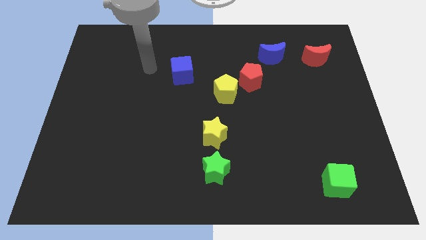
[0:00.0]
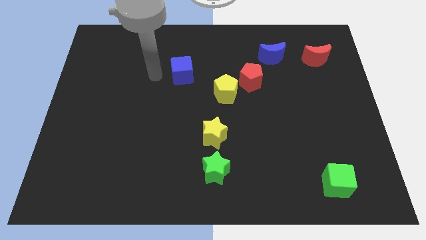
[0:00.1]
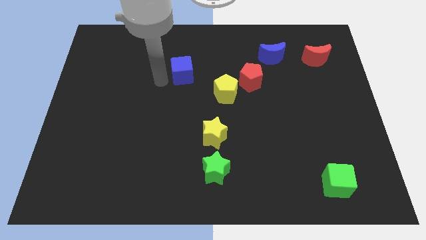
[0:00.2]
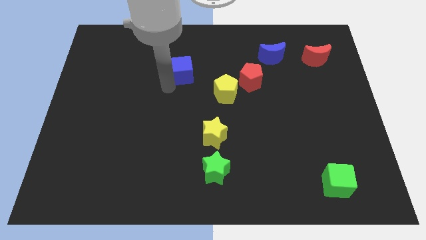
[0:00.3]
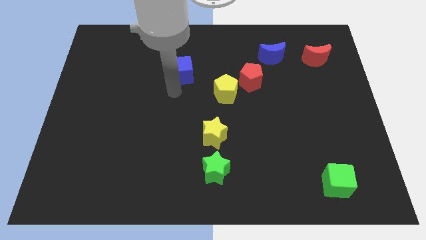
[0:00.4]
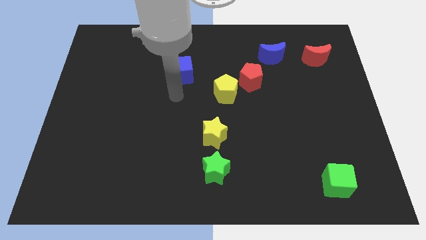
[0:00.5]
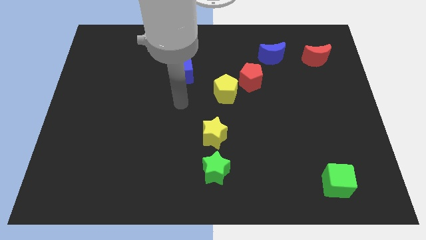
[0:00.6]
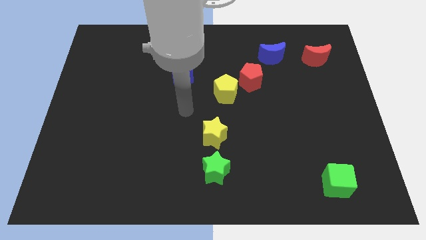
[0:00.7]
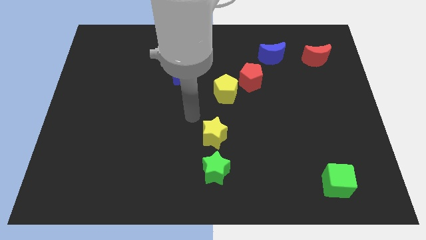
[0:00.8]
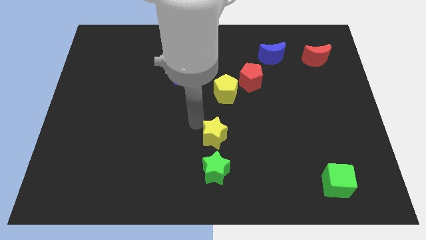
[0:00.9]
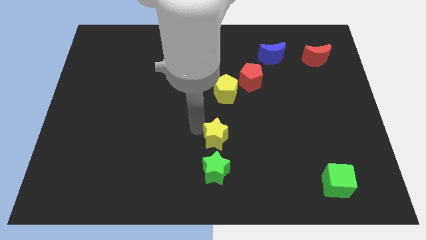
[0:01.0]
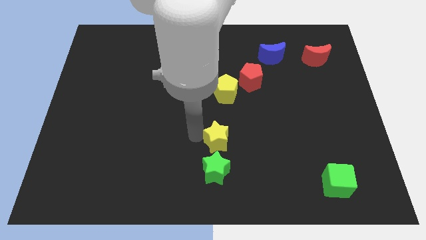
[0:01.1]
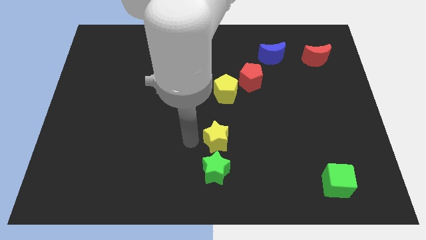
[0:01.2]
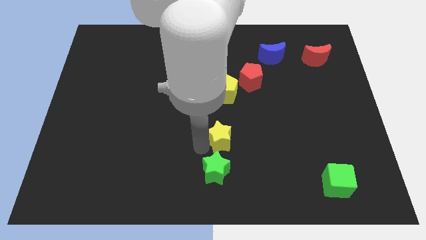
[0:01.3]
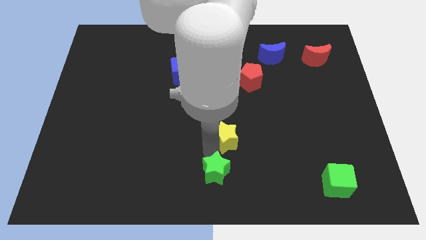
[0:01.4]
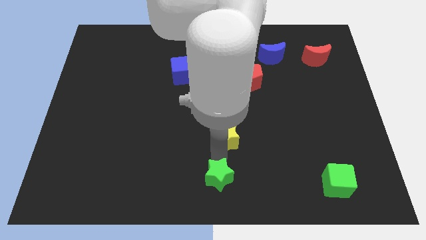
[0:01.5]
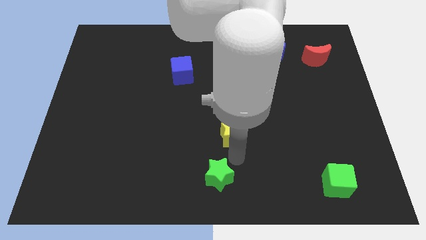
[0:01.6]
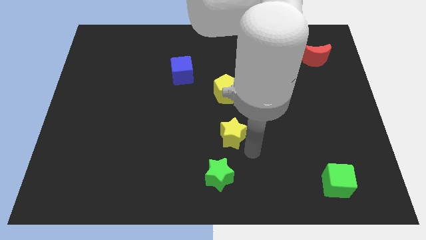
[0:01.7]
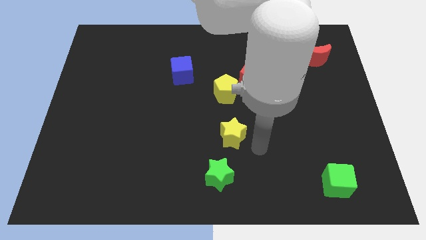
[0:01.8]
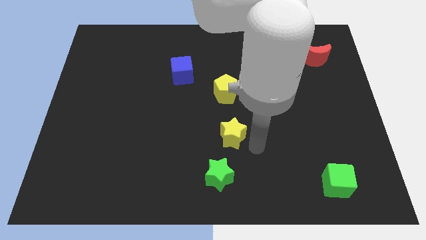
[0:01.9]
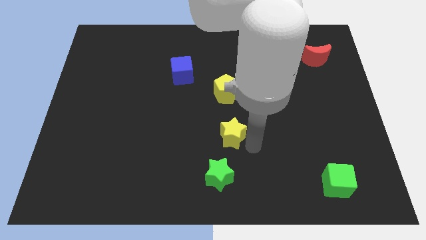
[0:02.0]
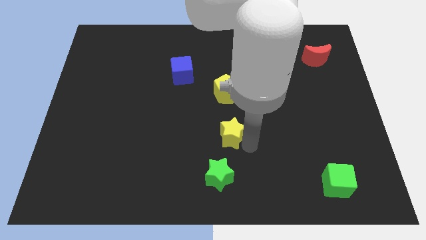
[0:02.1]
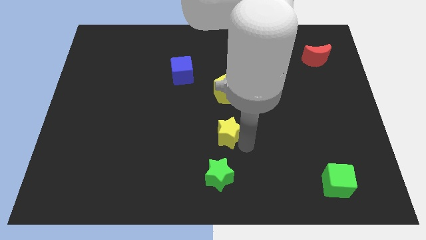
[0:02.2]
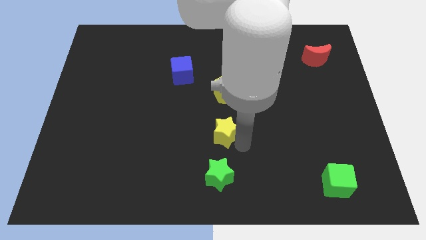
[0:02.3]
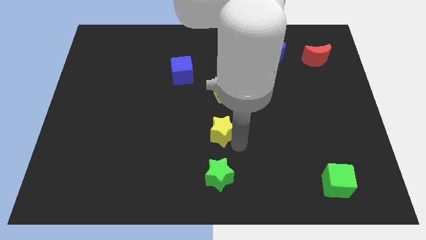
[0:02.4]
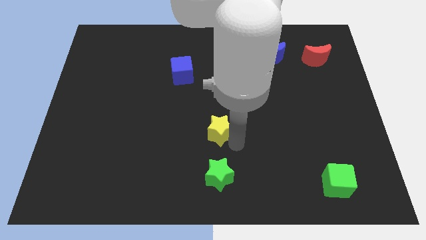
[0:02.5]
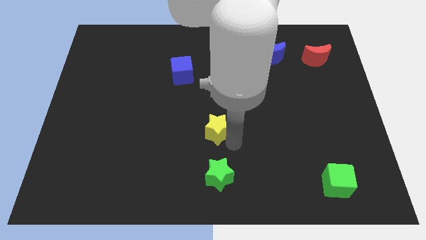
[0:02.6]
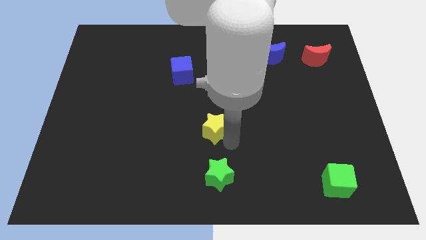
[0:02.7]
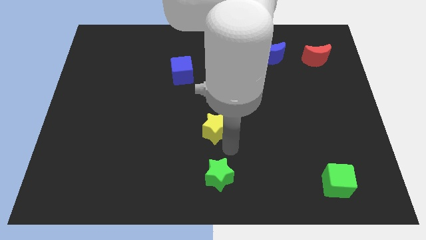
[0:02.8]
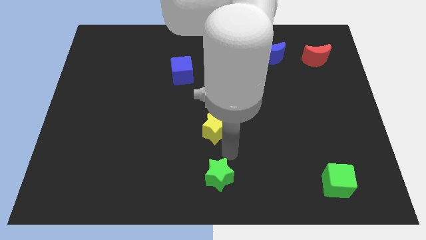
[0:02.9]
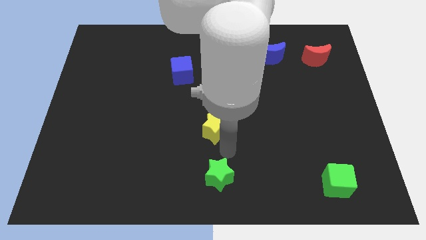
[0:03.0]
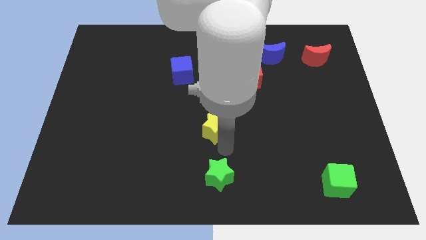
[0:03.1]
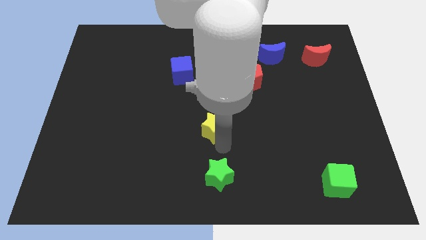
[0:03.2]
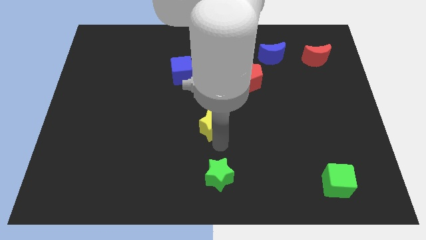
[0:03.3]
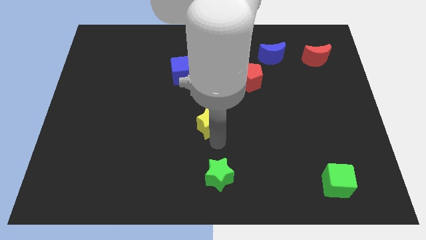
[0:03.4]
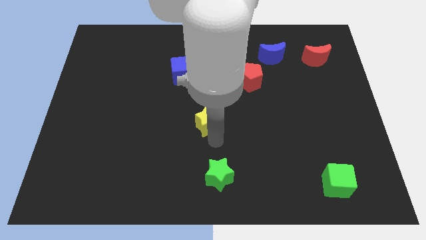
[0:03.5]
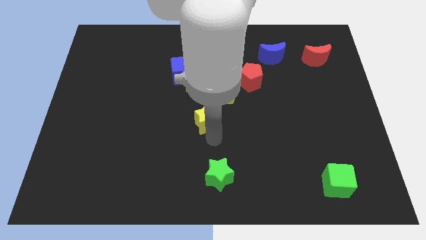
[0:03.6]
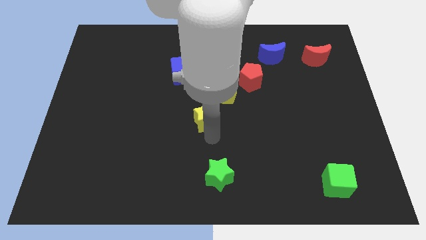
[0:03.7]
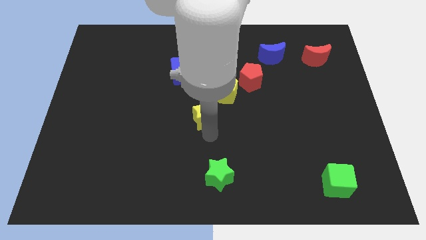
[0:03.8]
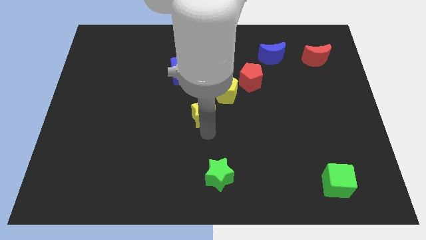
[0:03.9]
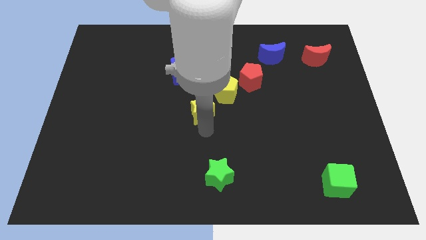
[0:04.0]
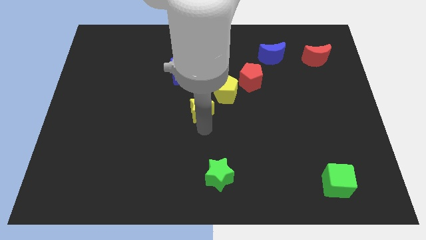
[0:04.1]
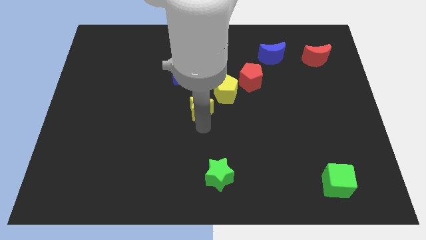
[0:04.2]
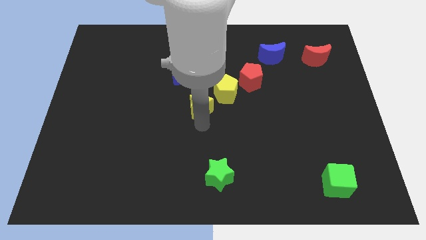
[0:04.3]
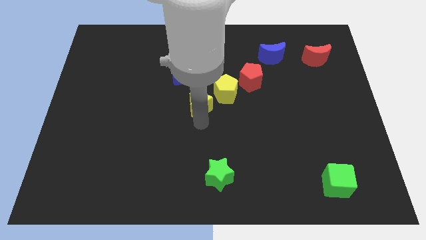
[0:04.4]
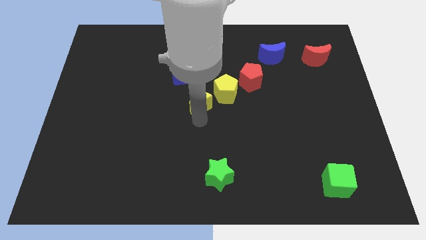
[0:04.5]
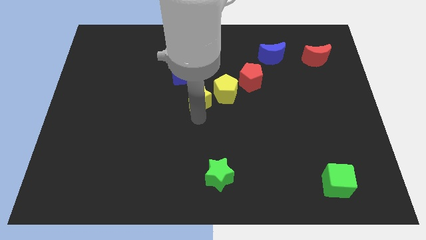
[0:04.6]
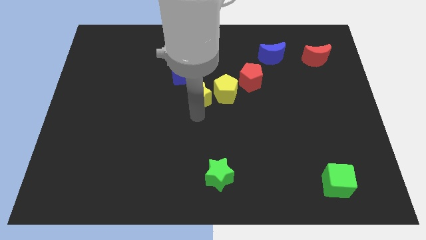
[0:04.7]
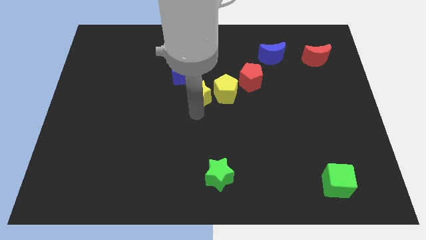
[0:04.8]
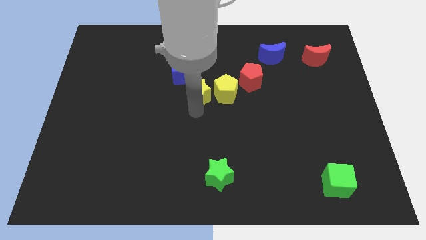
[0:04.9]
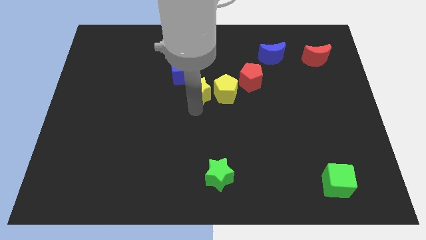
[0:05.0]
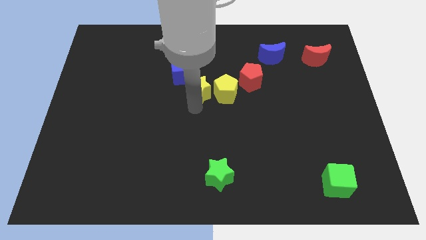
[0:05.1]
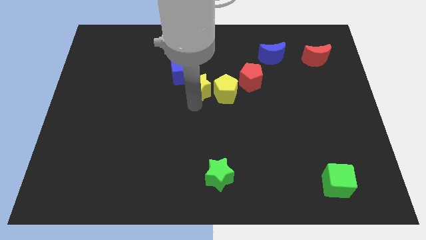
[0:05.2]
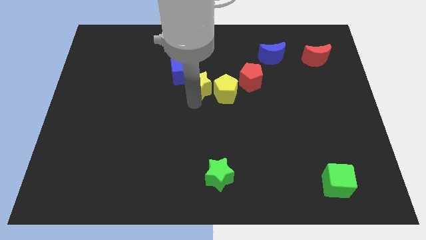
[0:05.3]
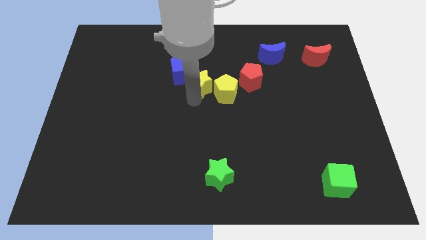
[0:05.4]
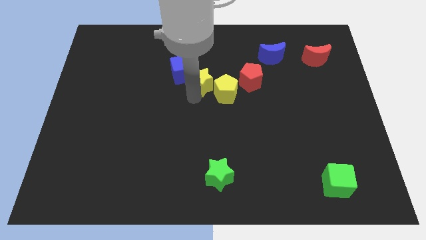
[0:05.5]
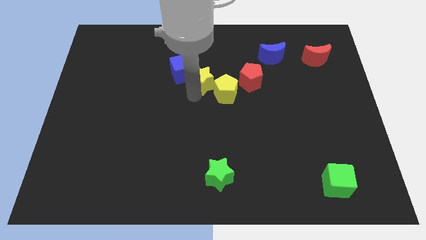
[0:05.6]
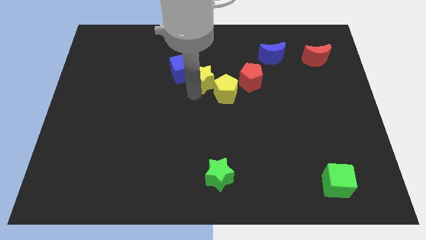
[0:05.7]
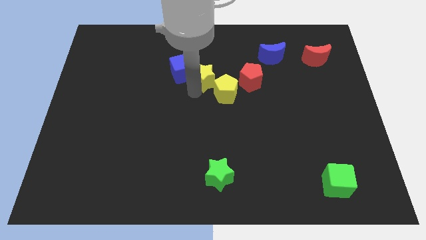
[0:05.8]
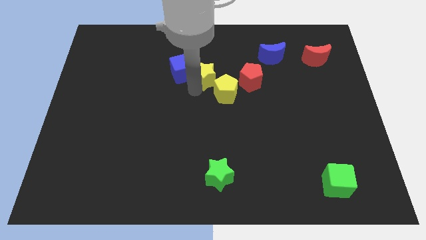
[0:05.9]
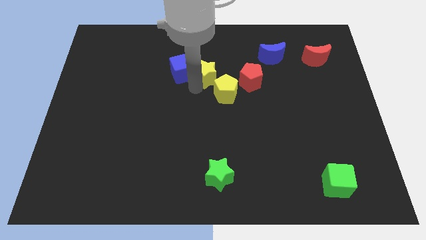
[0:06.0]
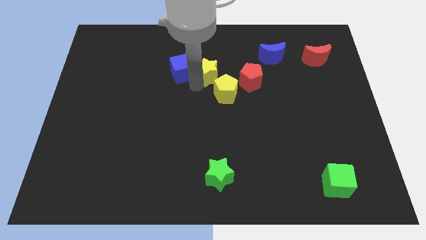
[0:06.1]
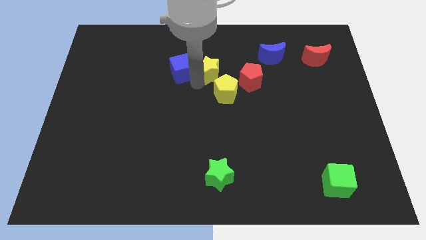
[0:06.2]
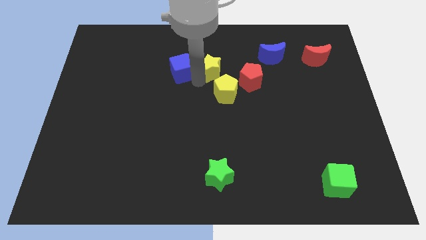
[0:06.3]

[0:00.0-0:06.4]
push the yellow star to the top left of the red pentagon
